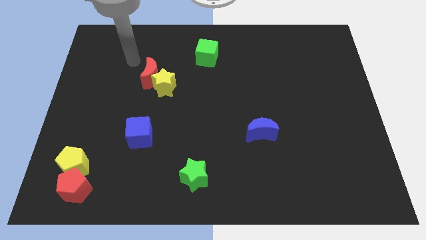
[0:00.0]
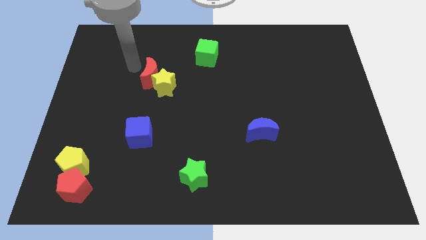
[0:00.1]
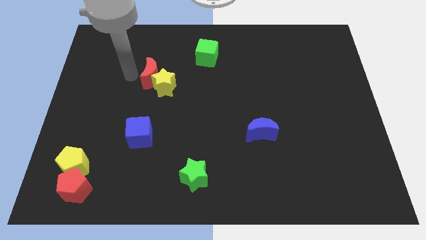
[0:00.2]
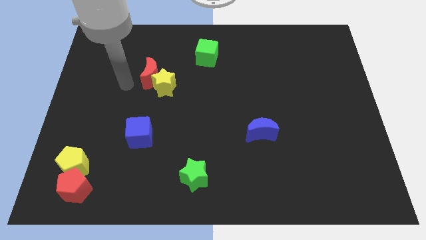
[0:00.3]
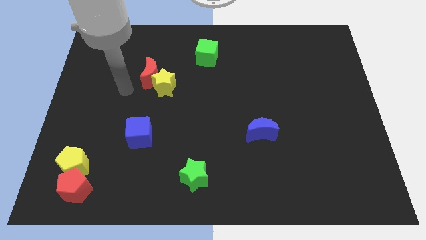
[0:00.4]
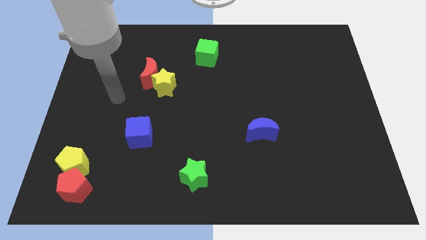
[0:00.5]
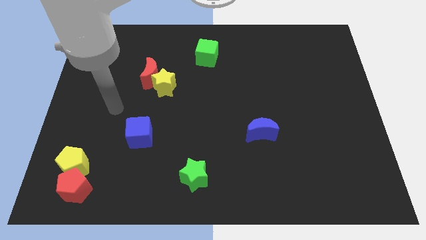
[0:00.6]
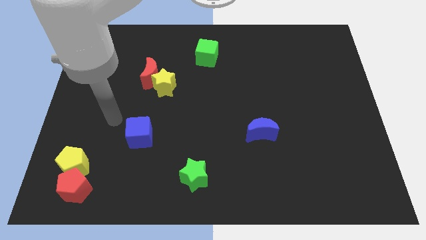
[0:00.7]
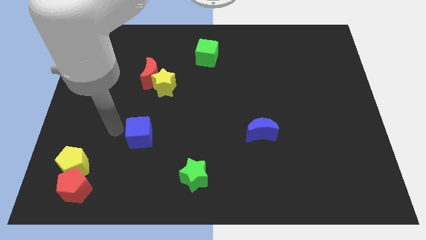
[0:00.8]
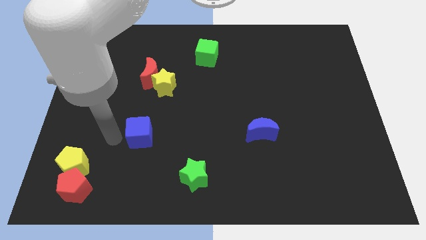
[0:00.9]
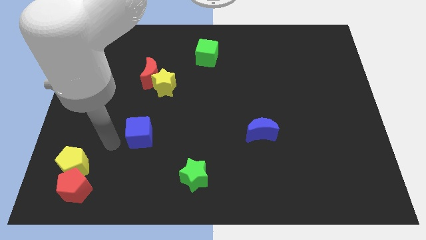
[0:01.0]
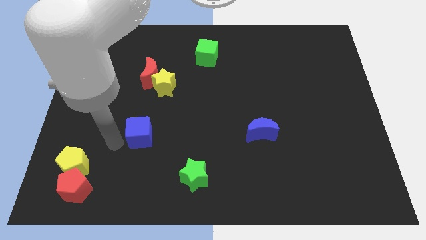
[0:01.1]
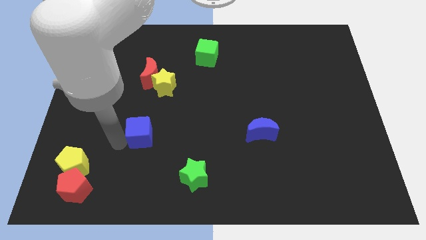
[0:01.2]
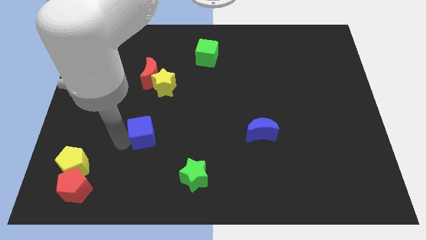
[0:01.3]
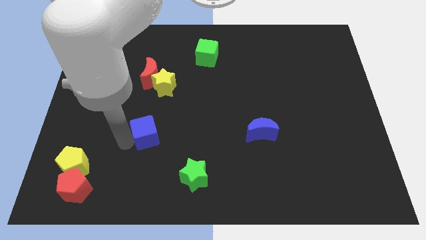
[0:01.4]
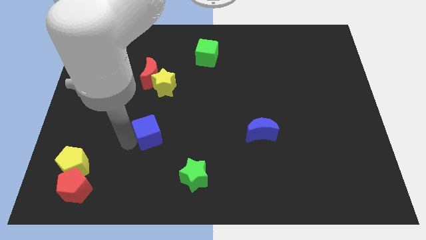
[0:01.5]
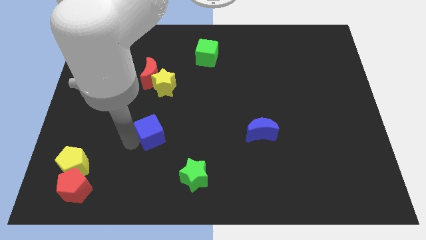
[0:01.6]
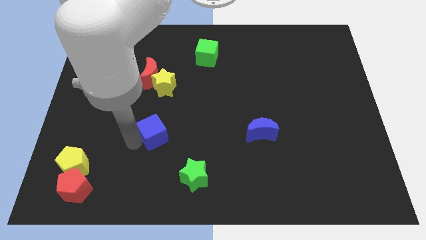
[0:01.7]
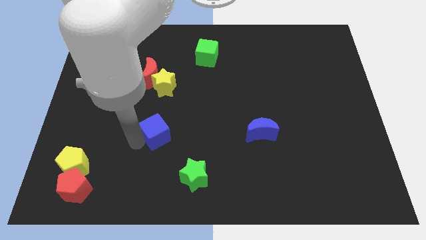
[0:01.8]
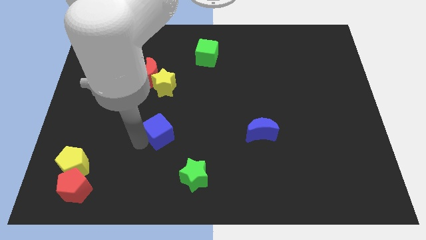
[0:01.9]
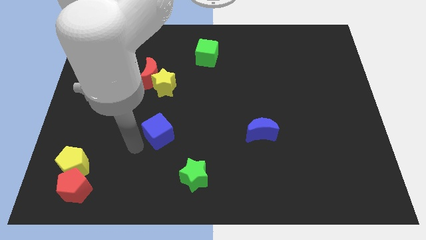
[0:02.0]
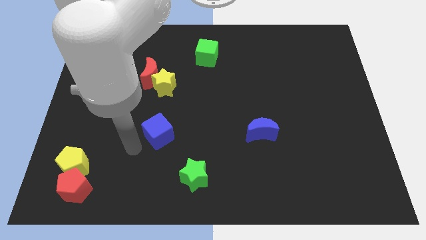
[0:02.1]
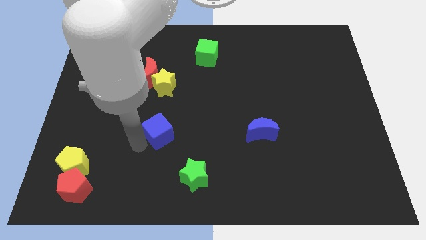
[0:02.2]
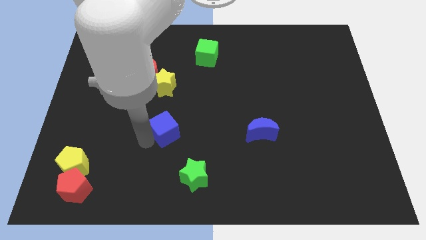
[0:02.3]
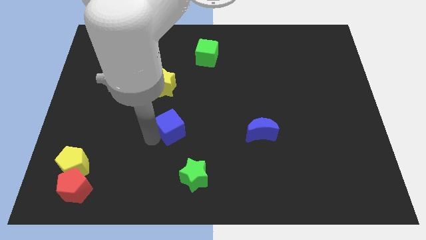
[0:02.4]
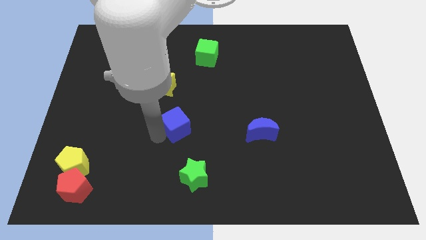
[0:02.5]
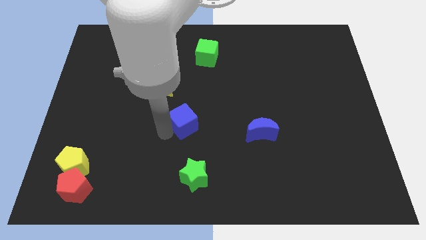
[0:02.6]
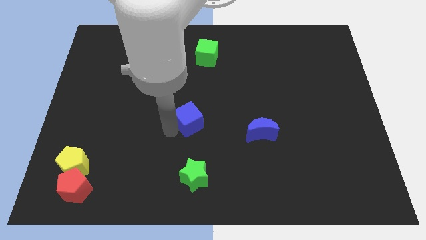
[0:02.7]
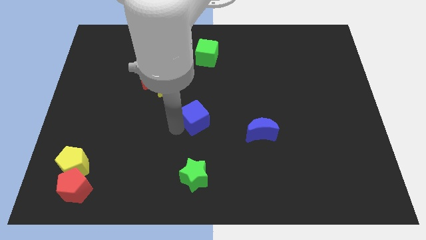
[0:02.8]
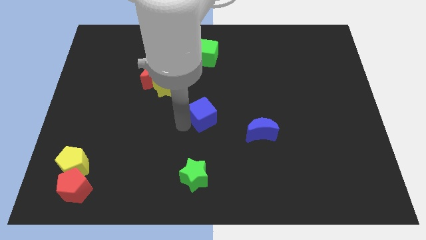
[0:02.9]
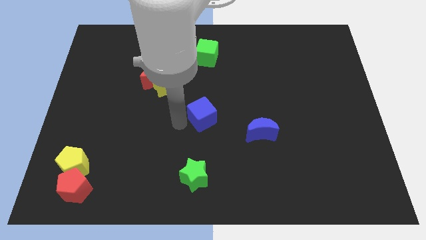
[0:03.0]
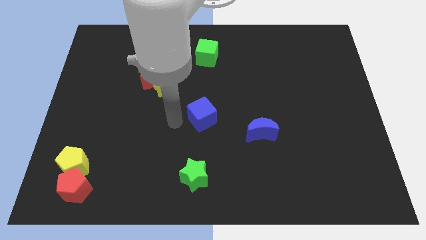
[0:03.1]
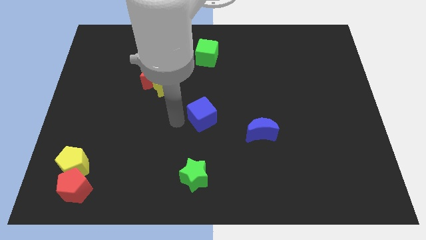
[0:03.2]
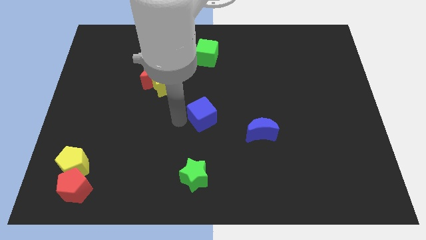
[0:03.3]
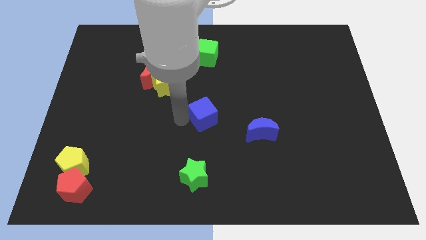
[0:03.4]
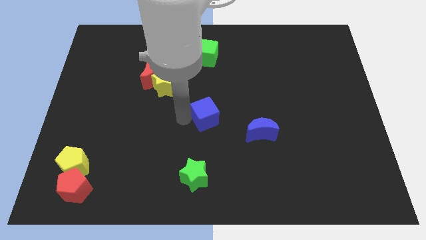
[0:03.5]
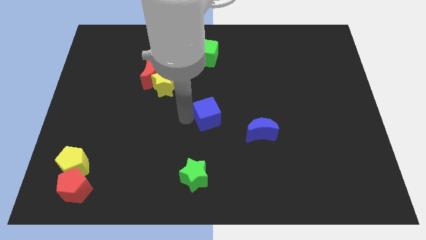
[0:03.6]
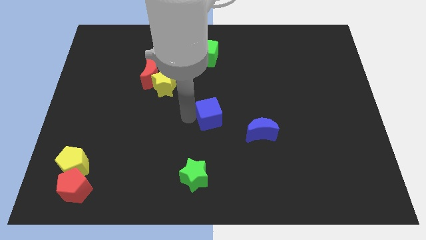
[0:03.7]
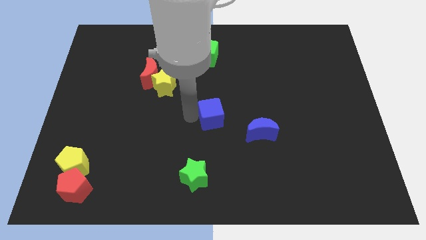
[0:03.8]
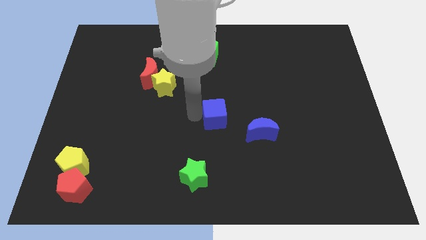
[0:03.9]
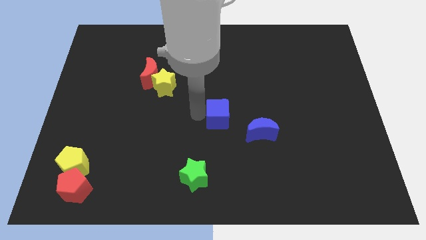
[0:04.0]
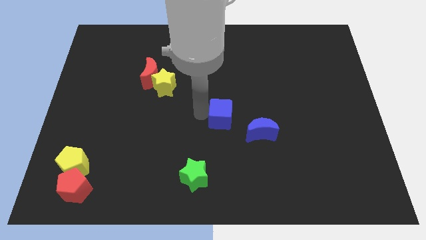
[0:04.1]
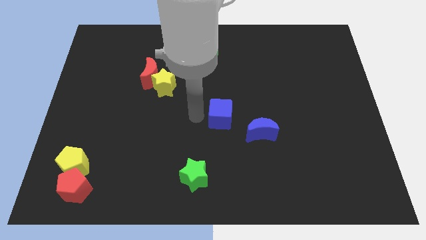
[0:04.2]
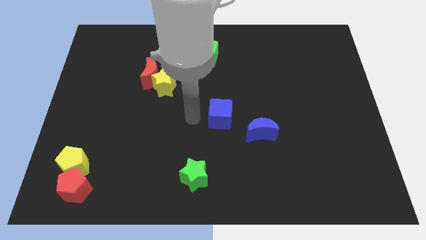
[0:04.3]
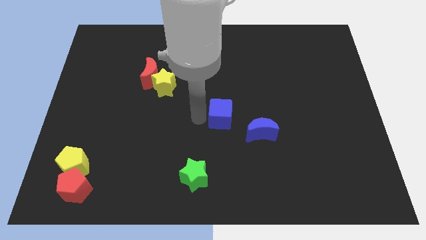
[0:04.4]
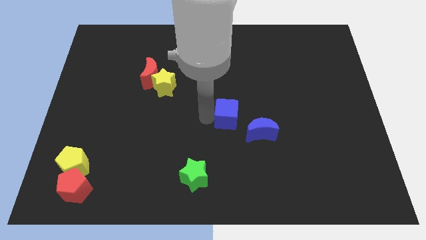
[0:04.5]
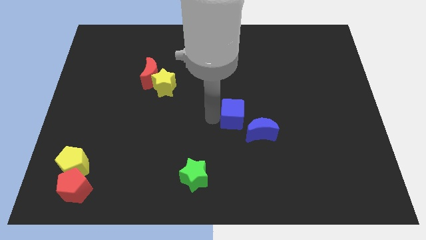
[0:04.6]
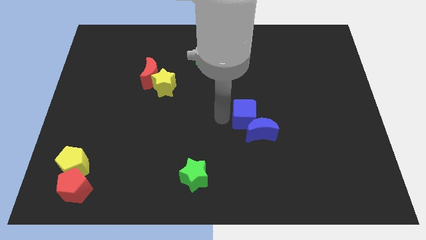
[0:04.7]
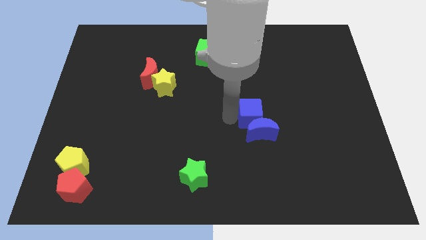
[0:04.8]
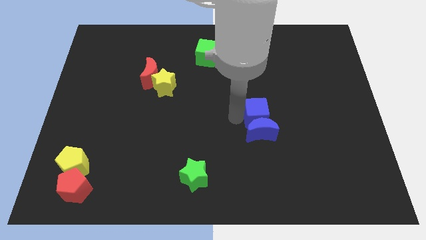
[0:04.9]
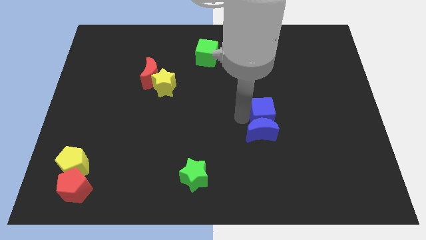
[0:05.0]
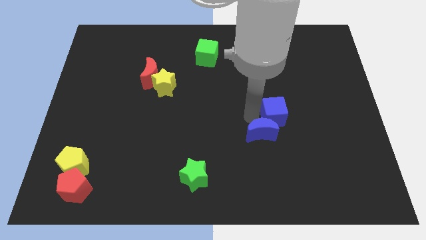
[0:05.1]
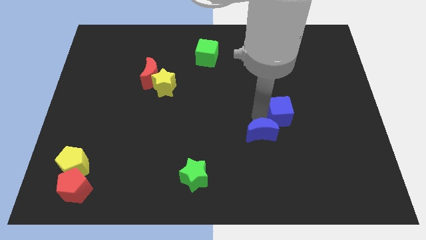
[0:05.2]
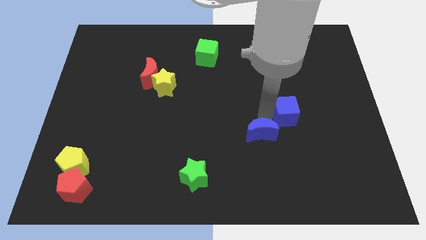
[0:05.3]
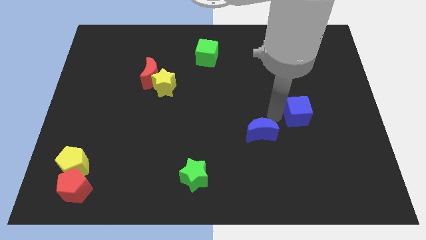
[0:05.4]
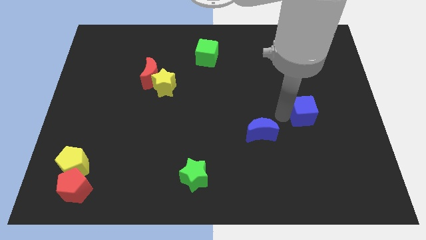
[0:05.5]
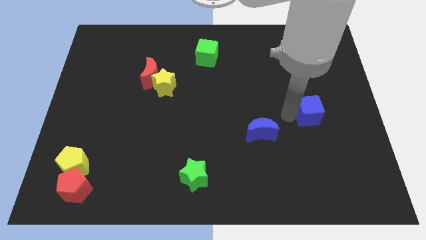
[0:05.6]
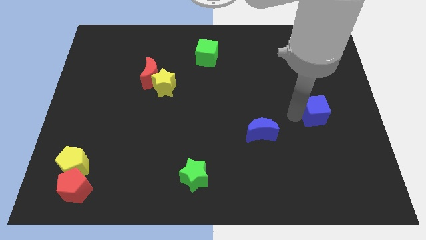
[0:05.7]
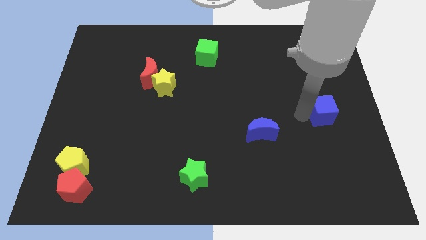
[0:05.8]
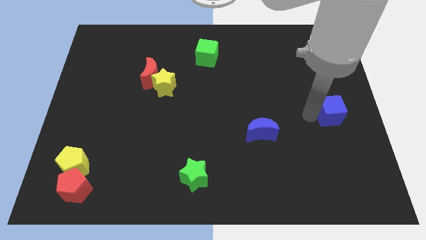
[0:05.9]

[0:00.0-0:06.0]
slide the blue cube to the right side of the board
